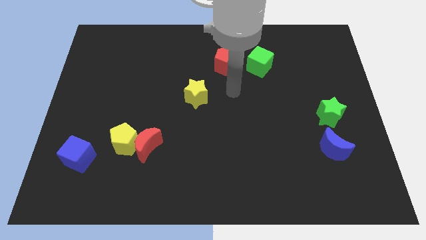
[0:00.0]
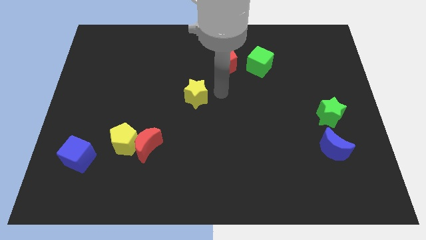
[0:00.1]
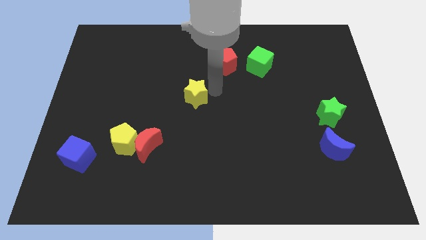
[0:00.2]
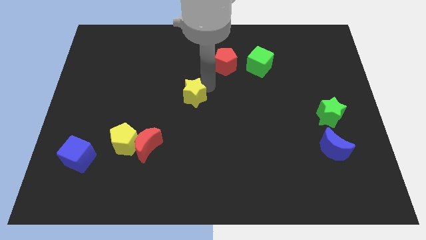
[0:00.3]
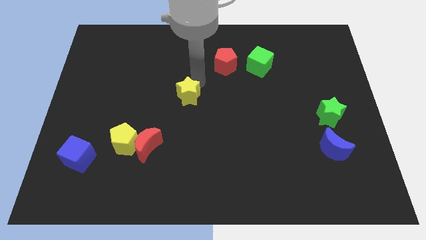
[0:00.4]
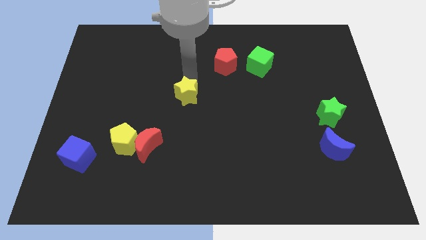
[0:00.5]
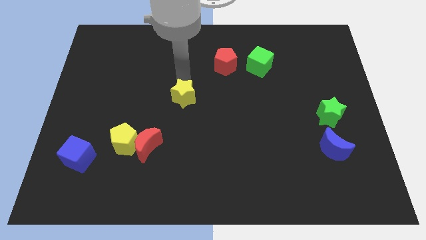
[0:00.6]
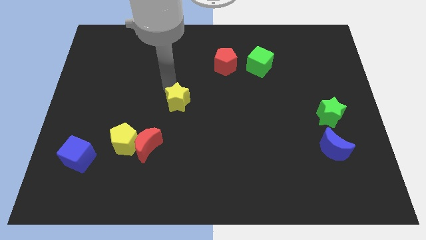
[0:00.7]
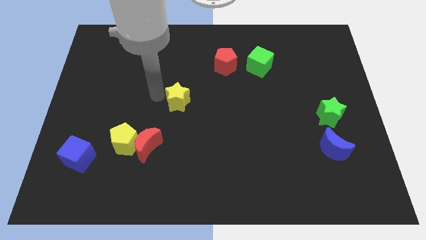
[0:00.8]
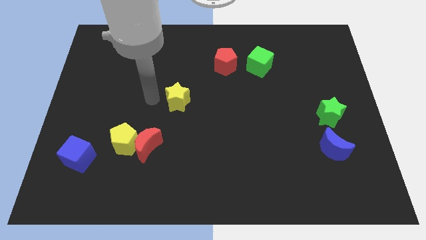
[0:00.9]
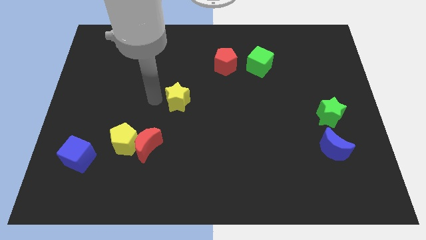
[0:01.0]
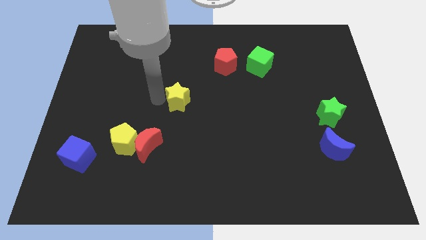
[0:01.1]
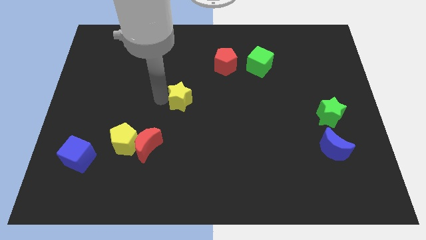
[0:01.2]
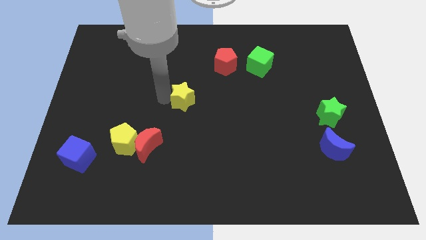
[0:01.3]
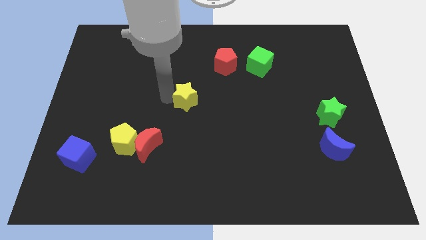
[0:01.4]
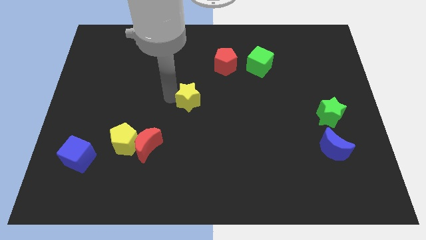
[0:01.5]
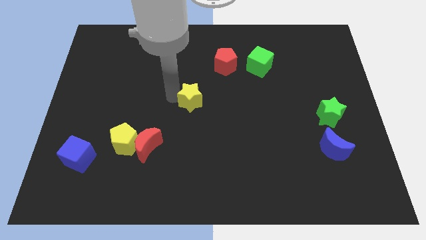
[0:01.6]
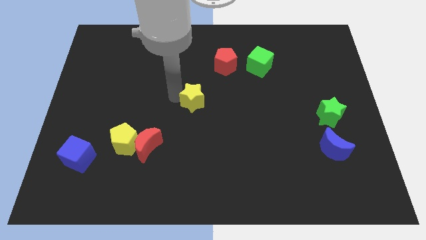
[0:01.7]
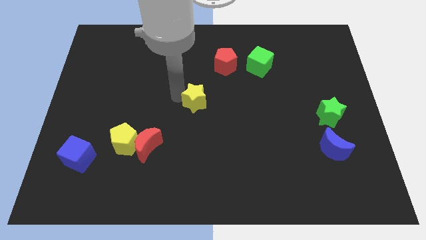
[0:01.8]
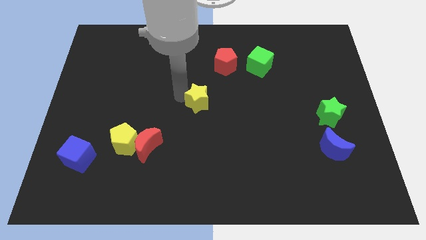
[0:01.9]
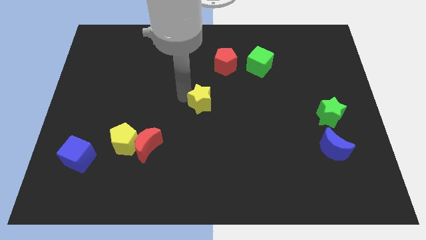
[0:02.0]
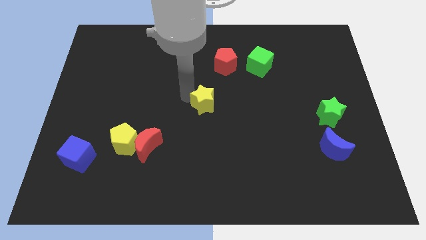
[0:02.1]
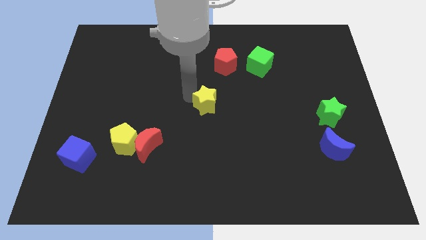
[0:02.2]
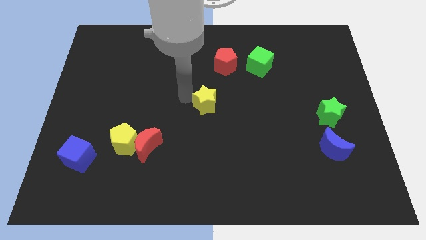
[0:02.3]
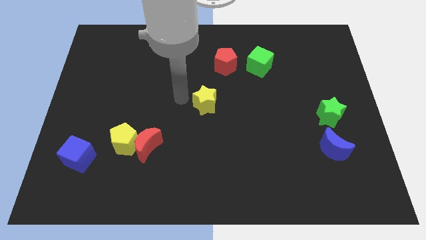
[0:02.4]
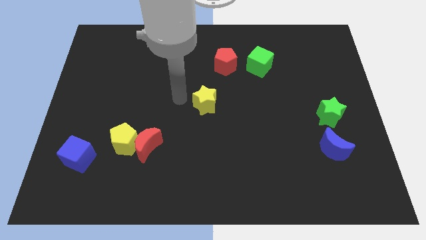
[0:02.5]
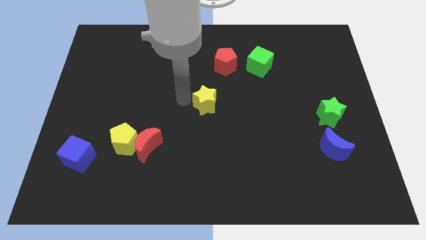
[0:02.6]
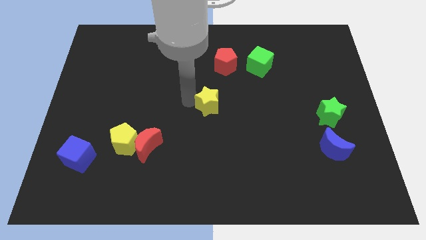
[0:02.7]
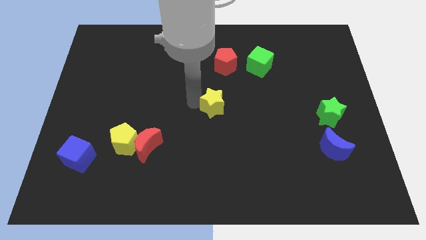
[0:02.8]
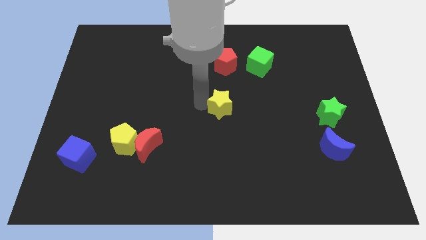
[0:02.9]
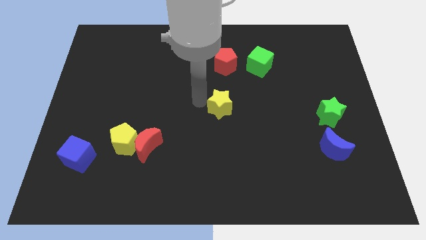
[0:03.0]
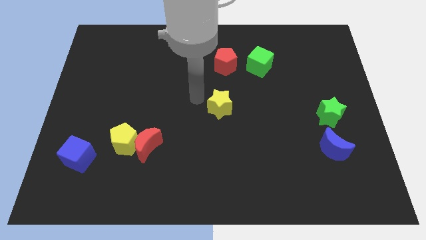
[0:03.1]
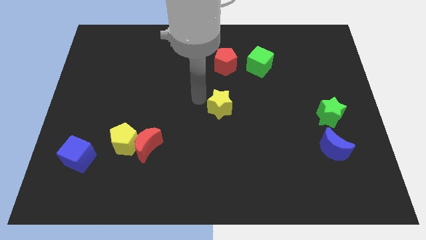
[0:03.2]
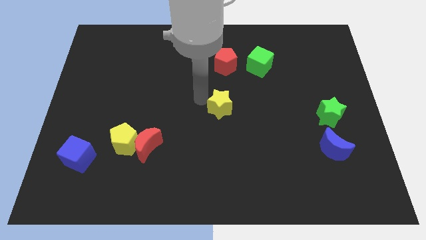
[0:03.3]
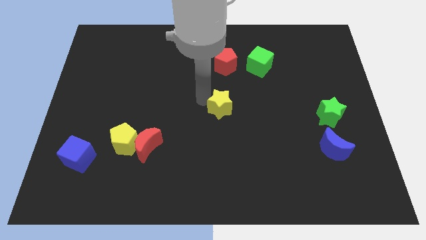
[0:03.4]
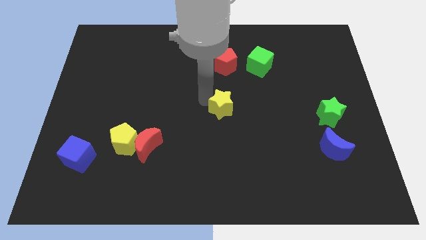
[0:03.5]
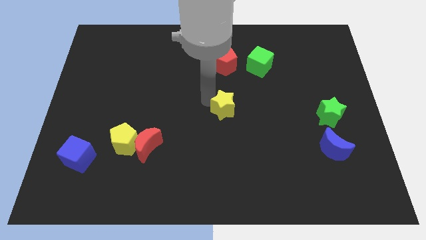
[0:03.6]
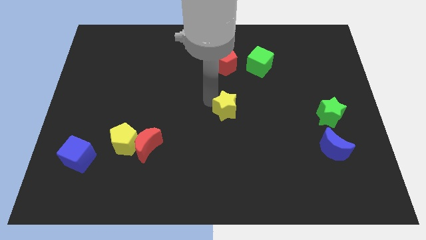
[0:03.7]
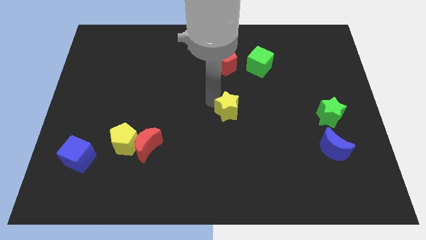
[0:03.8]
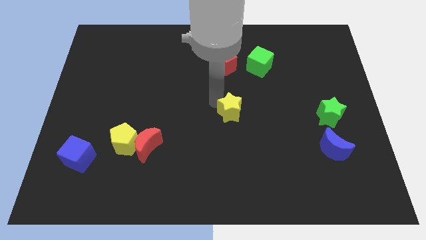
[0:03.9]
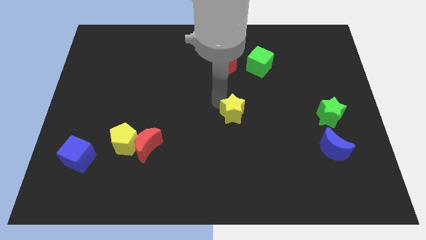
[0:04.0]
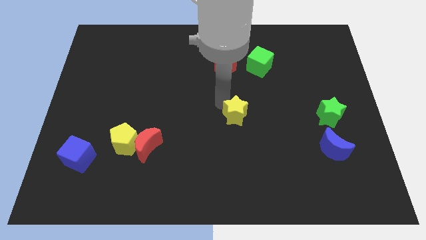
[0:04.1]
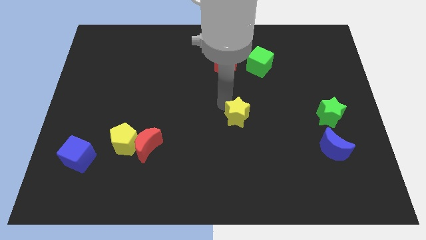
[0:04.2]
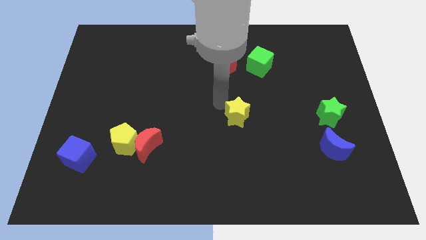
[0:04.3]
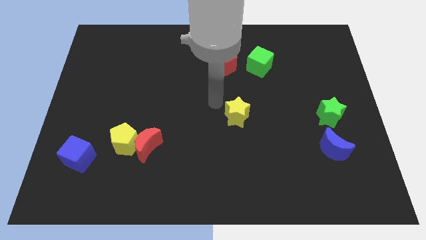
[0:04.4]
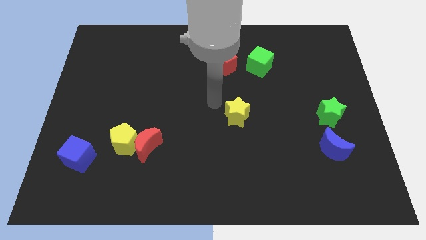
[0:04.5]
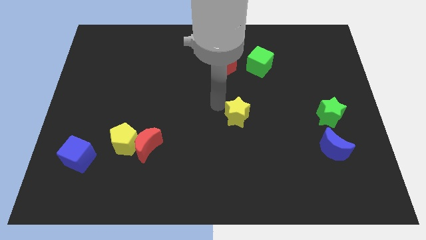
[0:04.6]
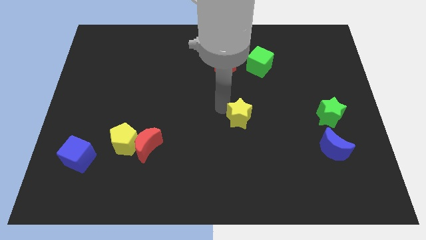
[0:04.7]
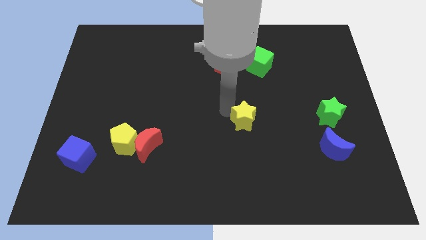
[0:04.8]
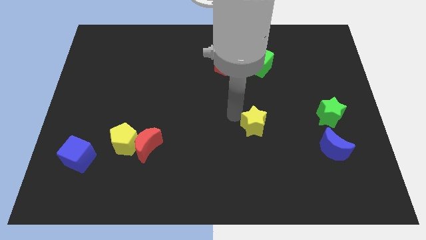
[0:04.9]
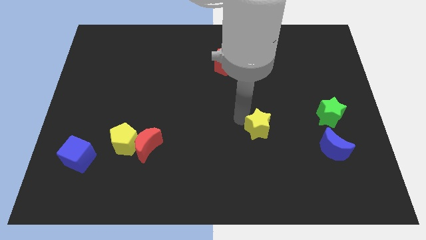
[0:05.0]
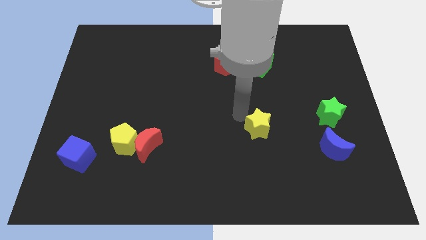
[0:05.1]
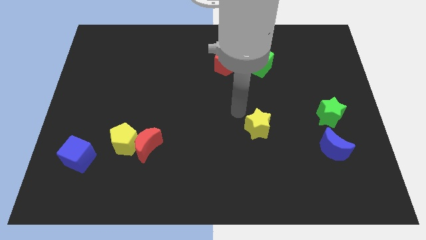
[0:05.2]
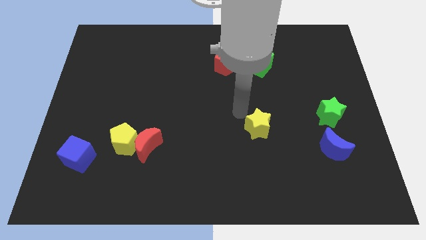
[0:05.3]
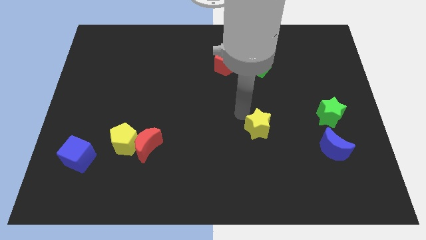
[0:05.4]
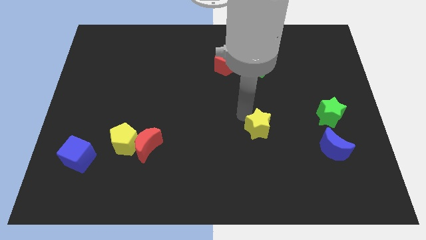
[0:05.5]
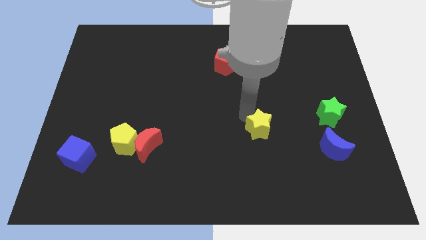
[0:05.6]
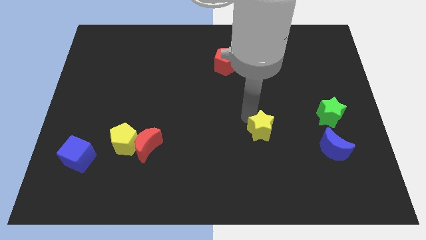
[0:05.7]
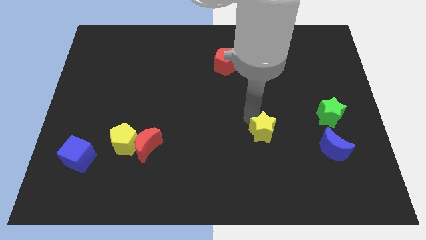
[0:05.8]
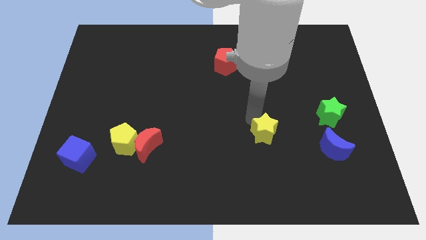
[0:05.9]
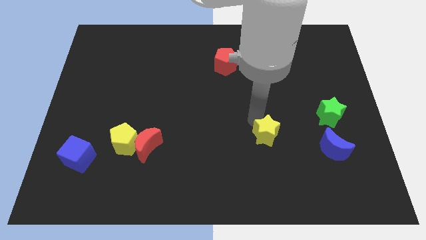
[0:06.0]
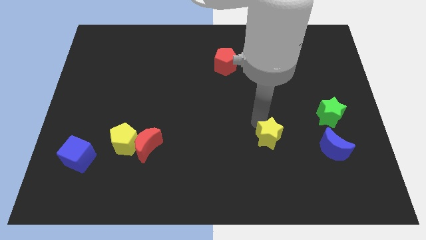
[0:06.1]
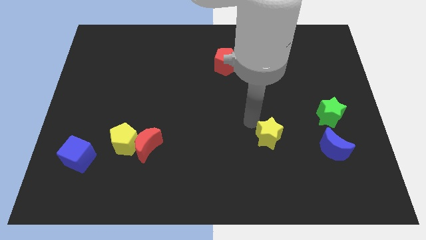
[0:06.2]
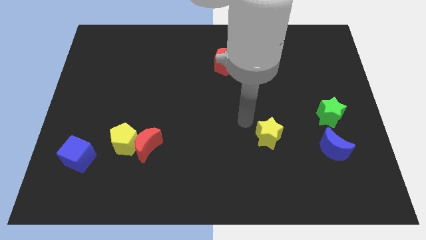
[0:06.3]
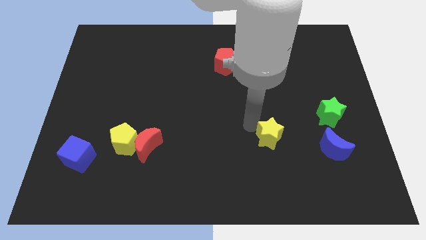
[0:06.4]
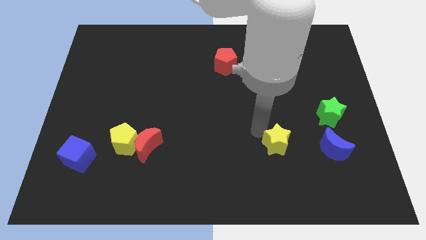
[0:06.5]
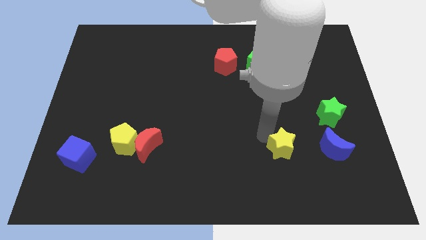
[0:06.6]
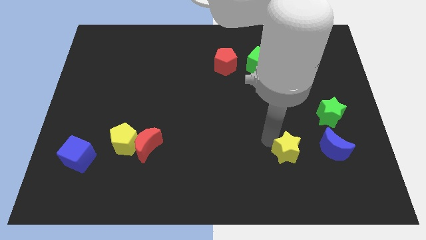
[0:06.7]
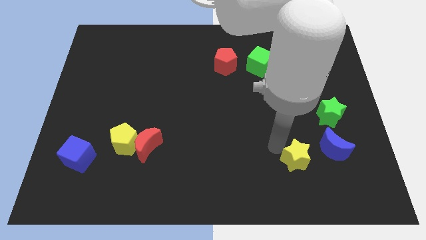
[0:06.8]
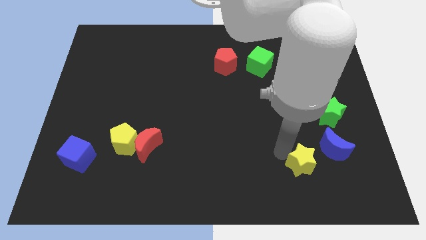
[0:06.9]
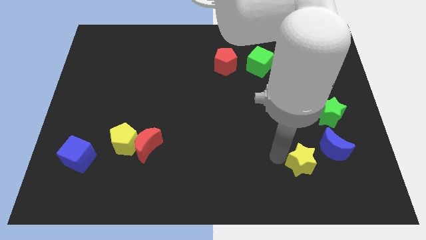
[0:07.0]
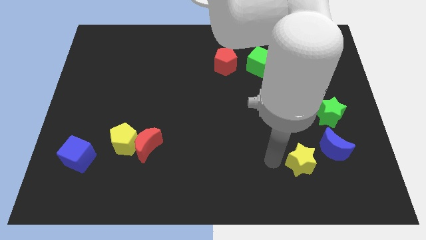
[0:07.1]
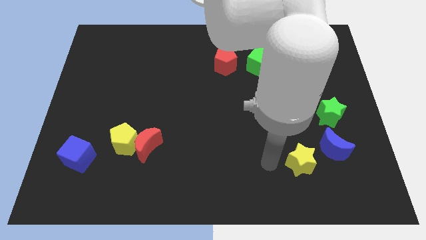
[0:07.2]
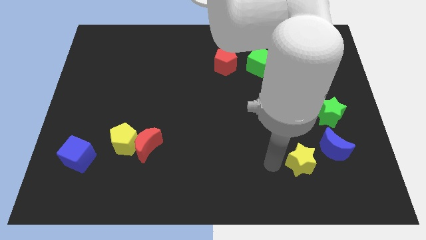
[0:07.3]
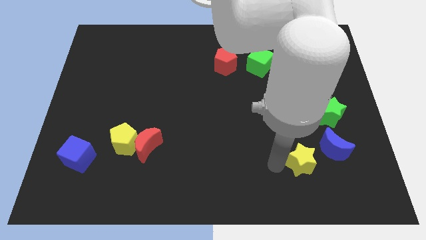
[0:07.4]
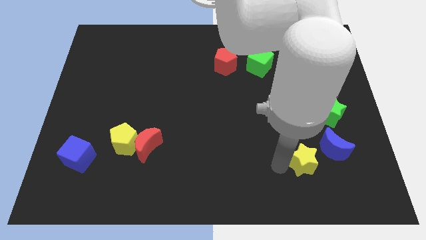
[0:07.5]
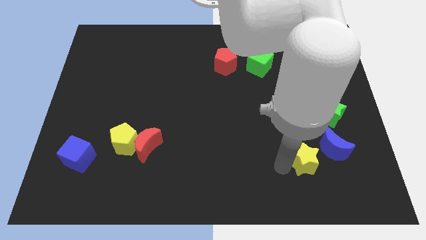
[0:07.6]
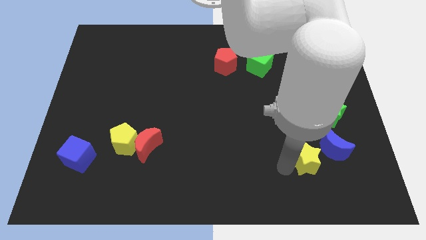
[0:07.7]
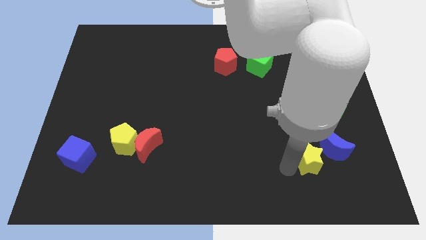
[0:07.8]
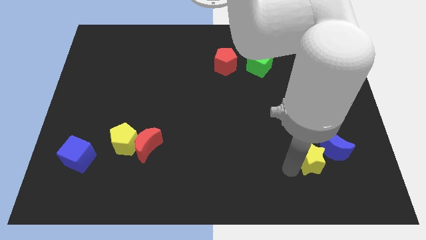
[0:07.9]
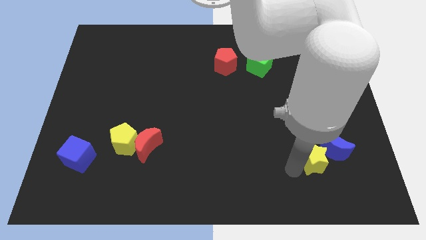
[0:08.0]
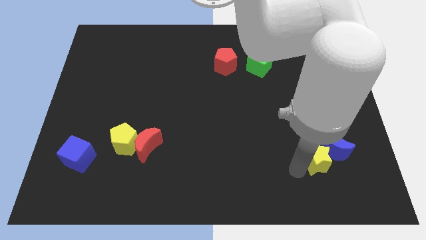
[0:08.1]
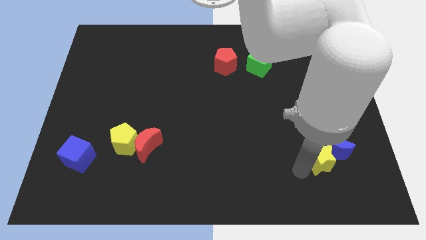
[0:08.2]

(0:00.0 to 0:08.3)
push the yellow star to the bottom side of the green star
